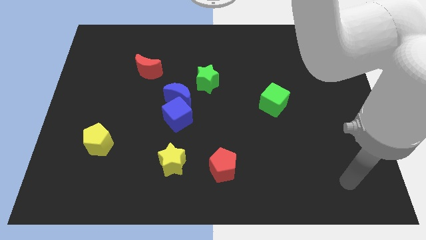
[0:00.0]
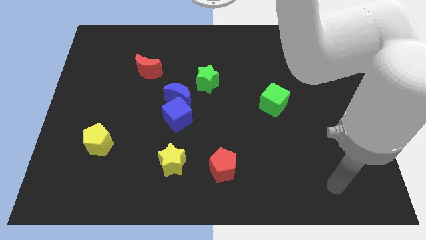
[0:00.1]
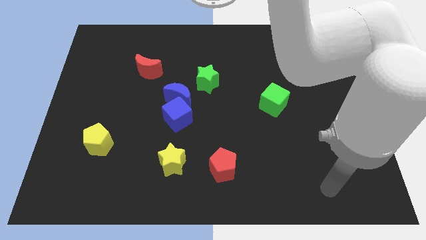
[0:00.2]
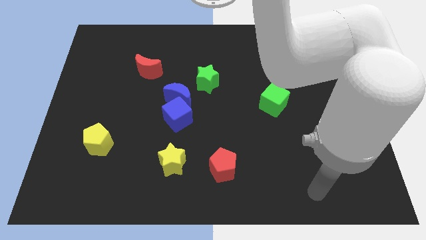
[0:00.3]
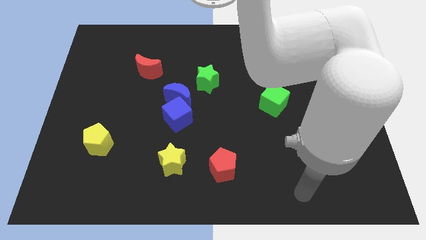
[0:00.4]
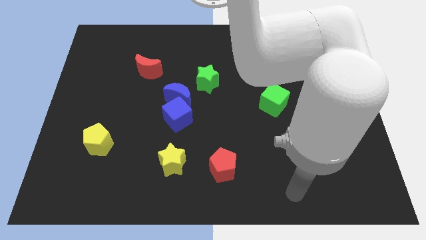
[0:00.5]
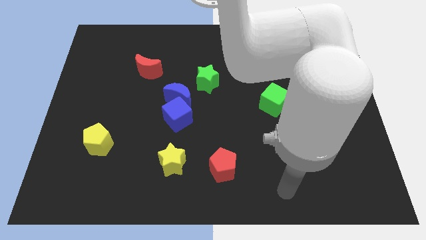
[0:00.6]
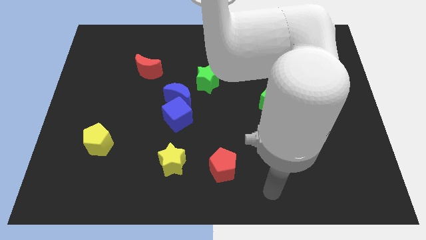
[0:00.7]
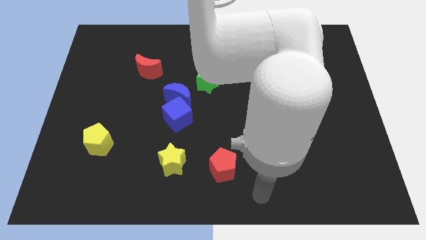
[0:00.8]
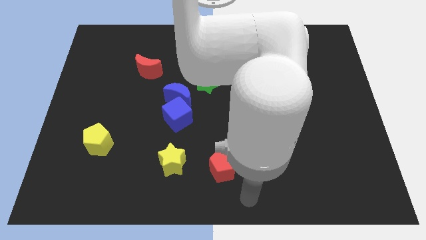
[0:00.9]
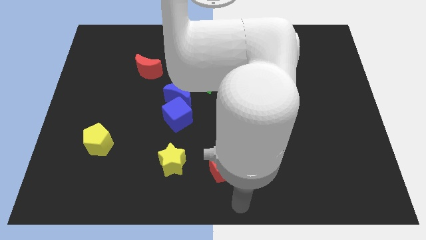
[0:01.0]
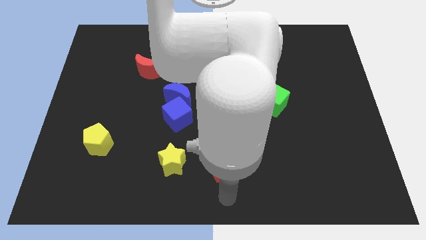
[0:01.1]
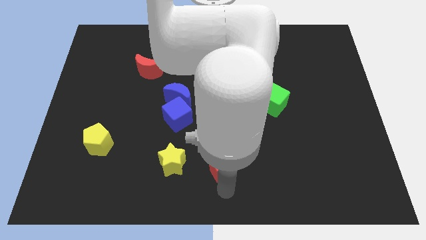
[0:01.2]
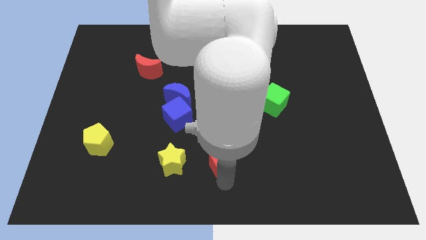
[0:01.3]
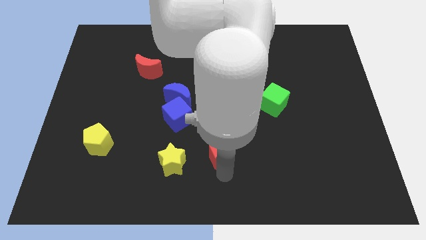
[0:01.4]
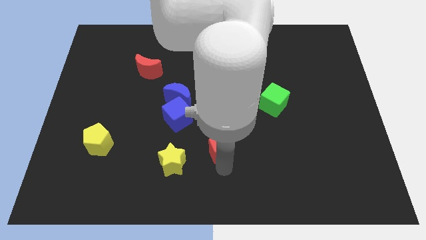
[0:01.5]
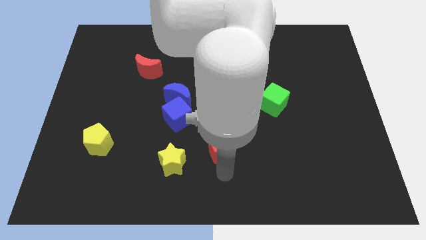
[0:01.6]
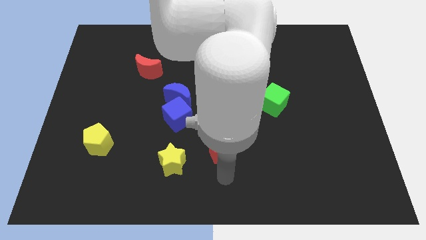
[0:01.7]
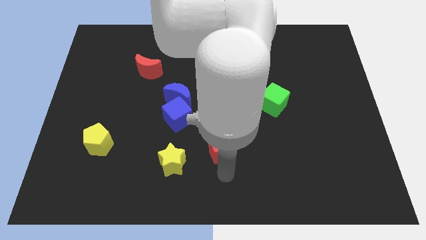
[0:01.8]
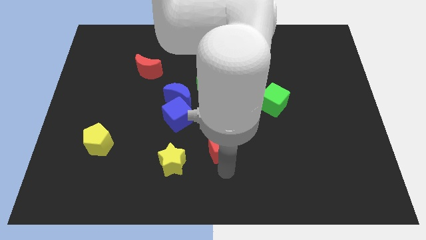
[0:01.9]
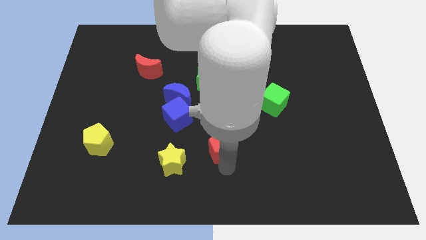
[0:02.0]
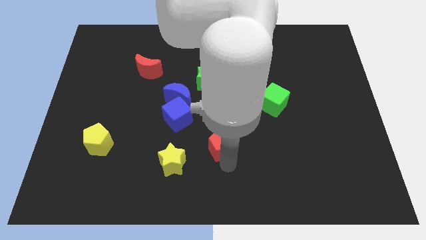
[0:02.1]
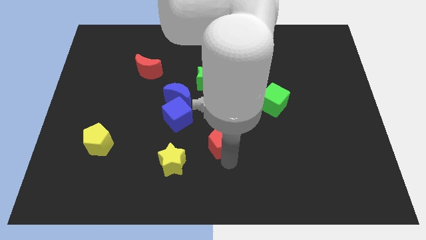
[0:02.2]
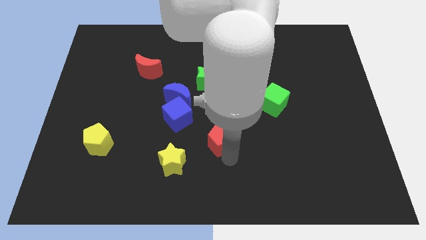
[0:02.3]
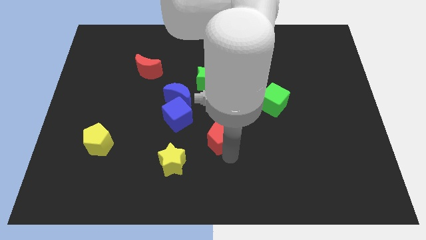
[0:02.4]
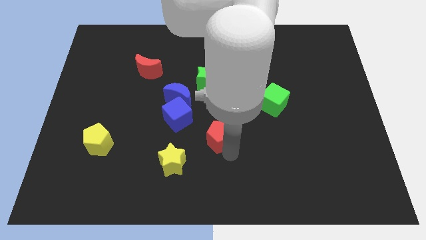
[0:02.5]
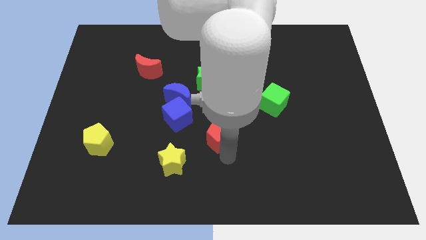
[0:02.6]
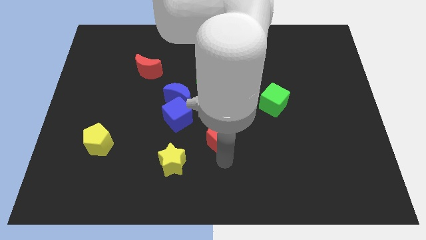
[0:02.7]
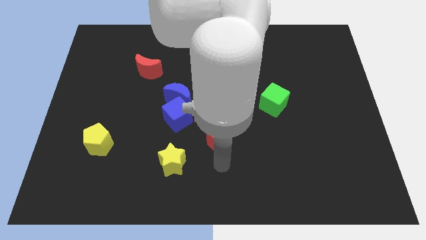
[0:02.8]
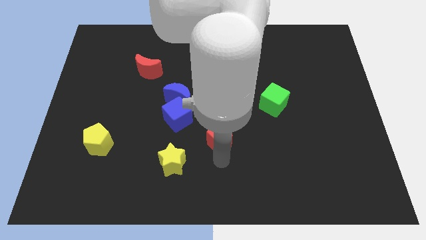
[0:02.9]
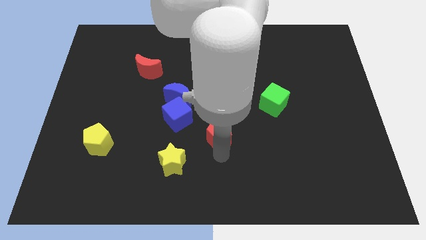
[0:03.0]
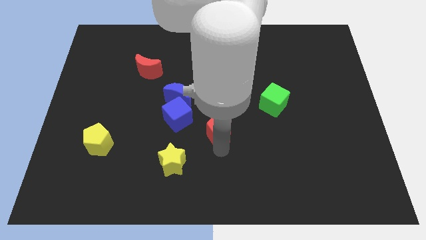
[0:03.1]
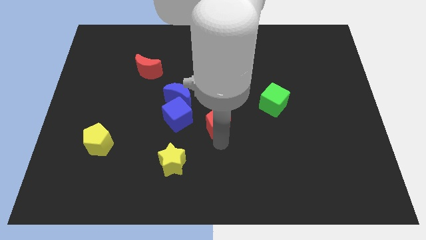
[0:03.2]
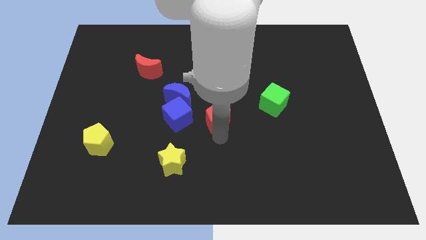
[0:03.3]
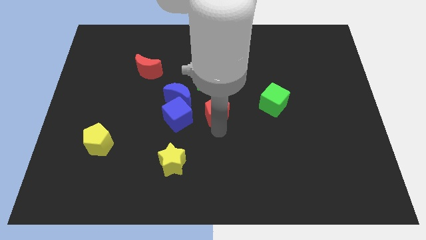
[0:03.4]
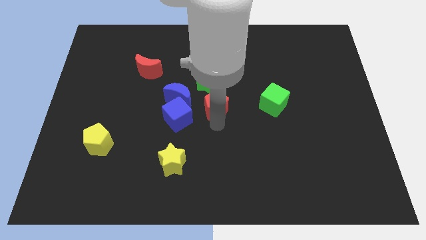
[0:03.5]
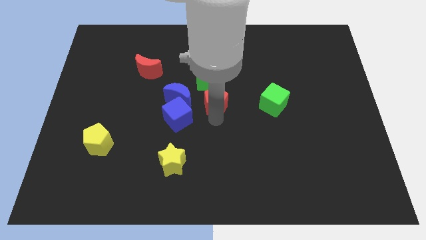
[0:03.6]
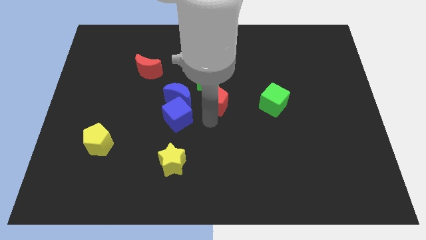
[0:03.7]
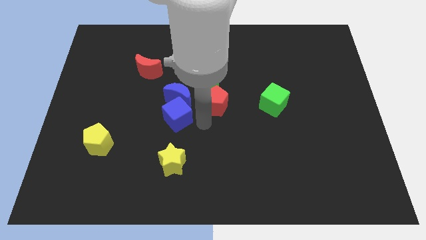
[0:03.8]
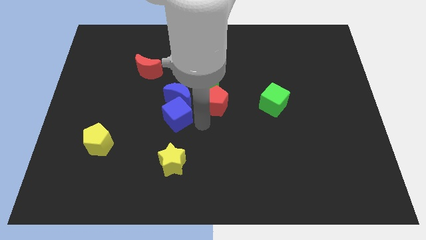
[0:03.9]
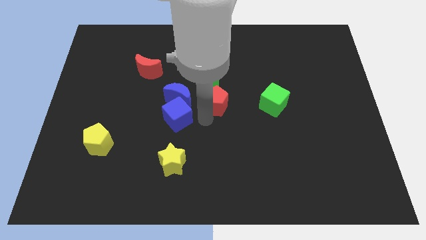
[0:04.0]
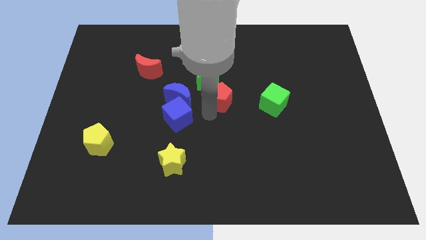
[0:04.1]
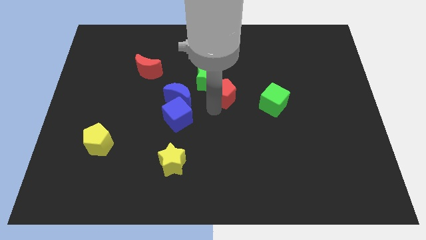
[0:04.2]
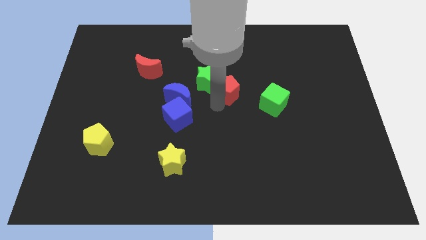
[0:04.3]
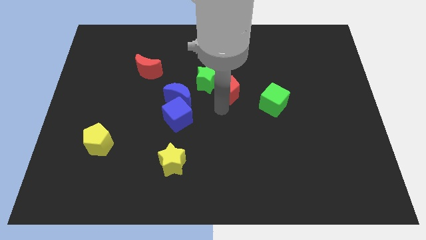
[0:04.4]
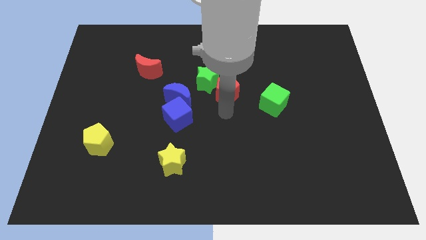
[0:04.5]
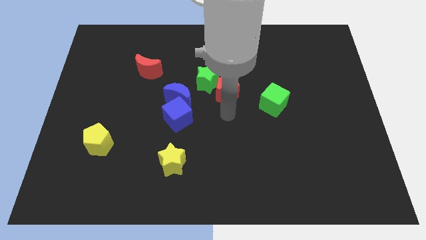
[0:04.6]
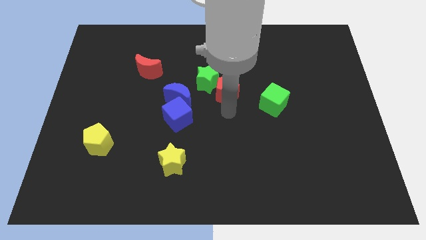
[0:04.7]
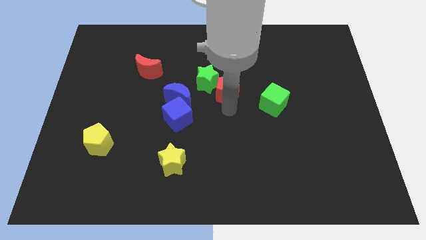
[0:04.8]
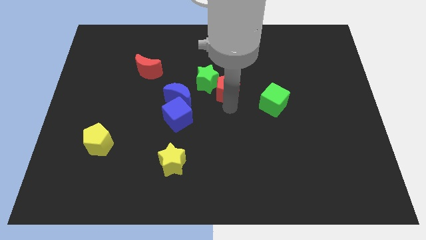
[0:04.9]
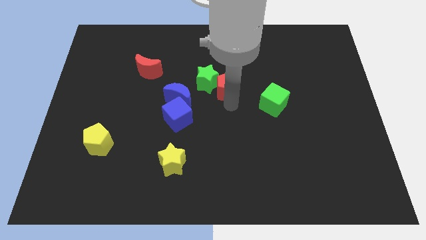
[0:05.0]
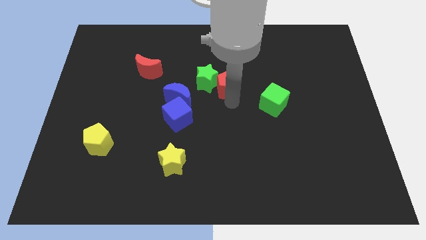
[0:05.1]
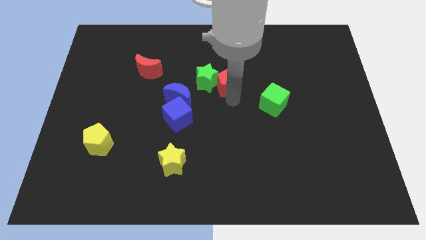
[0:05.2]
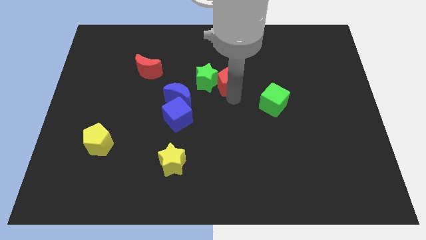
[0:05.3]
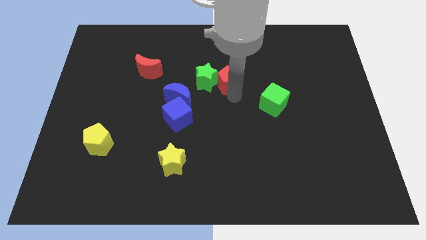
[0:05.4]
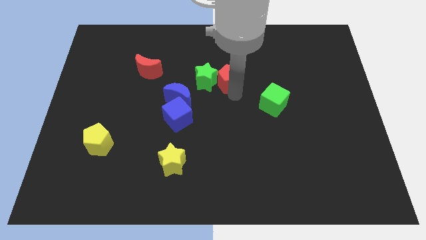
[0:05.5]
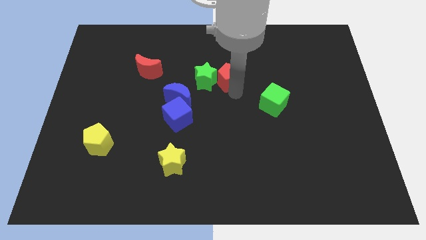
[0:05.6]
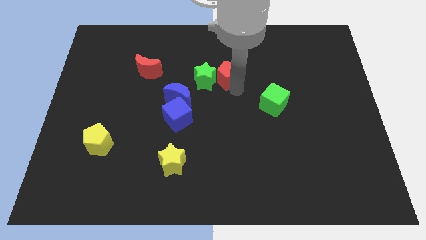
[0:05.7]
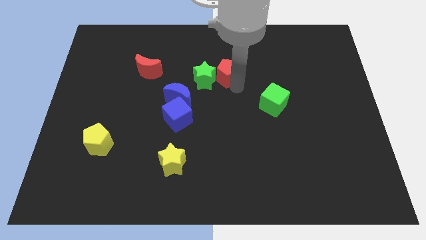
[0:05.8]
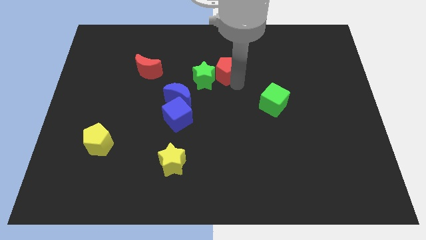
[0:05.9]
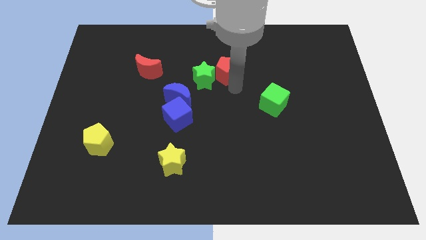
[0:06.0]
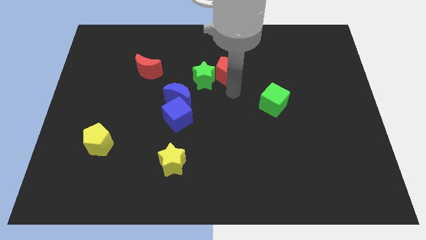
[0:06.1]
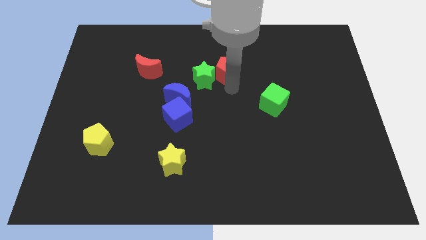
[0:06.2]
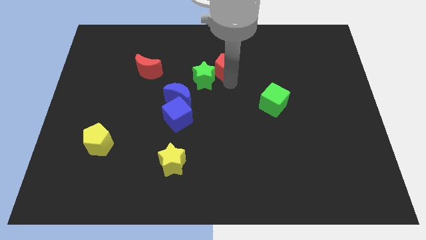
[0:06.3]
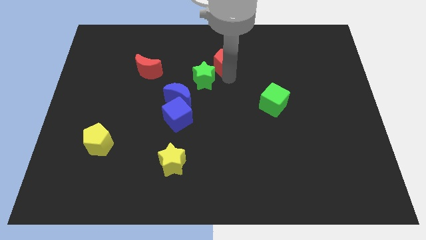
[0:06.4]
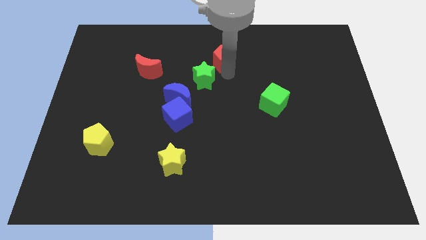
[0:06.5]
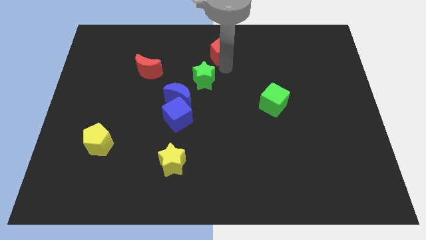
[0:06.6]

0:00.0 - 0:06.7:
slide the red pentagon to the top side
